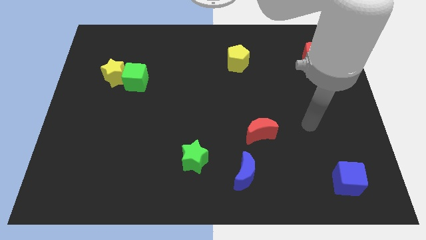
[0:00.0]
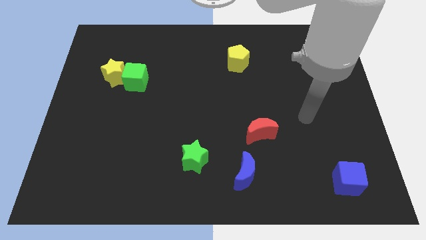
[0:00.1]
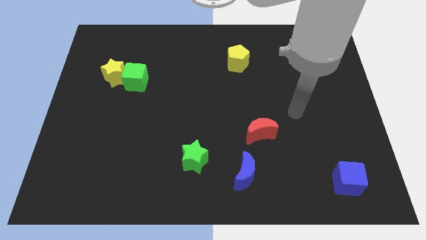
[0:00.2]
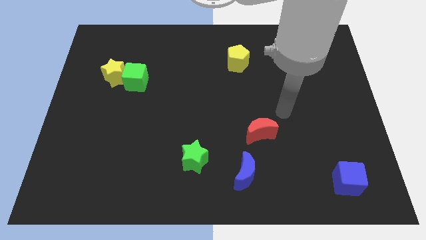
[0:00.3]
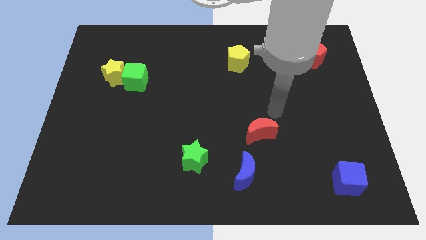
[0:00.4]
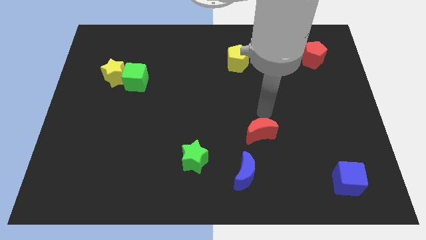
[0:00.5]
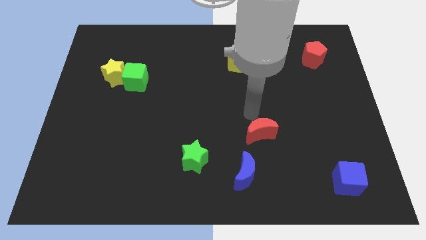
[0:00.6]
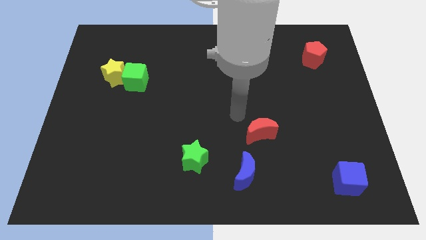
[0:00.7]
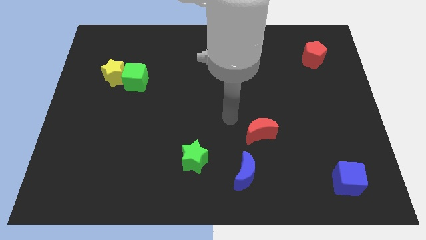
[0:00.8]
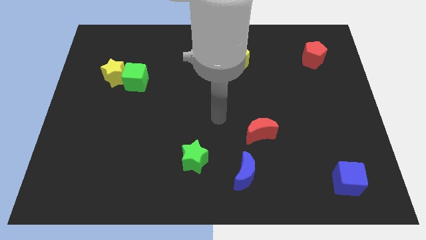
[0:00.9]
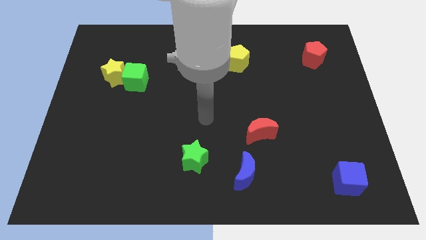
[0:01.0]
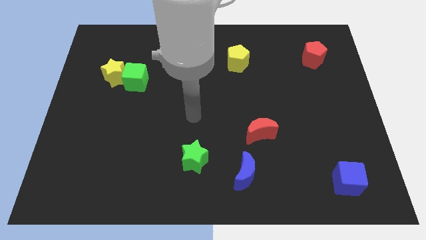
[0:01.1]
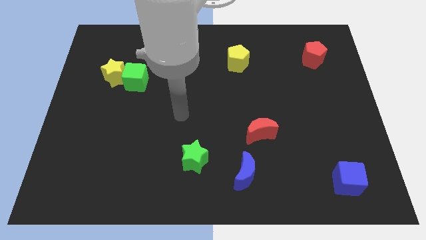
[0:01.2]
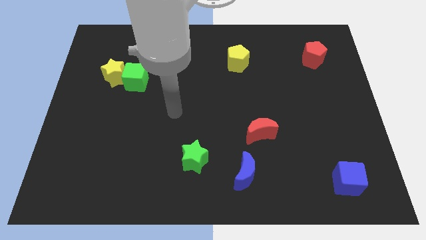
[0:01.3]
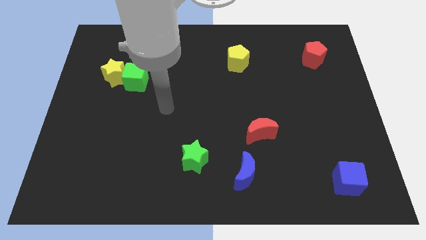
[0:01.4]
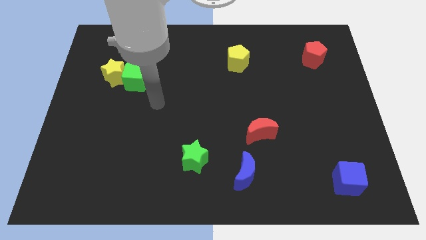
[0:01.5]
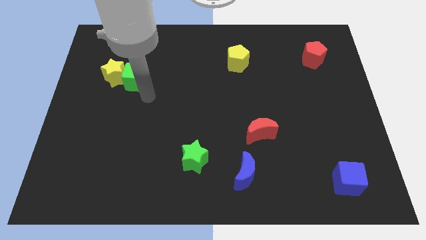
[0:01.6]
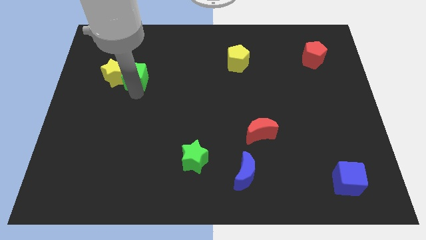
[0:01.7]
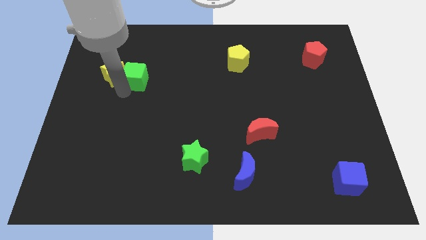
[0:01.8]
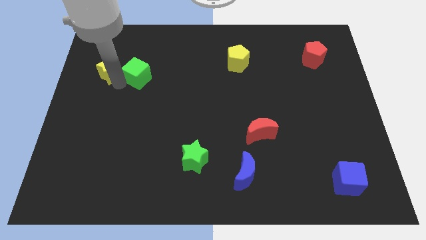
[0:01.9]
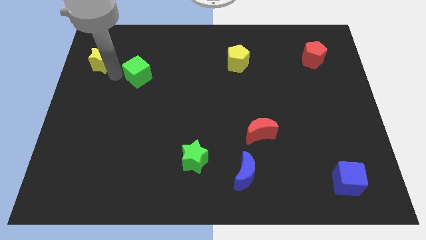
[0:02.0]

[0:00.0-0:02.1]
move the green cube away from the yellow star

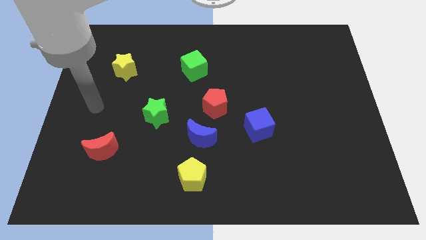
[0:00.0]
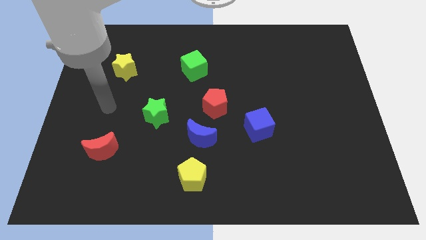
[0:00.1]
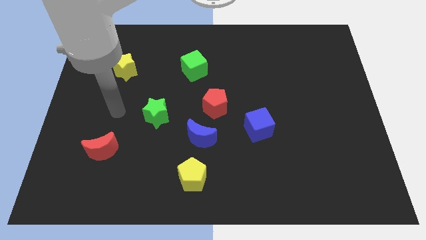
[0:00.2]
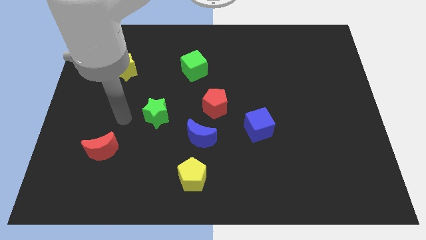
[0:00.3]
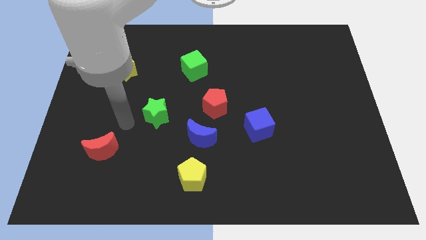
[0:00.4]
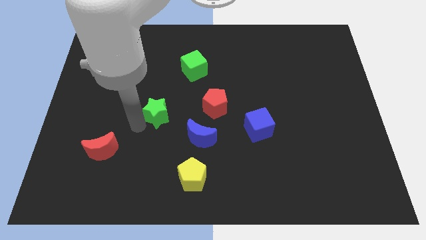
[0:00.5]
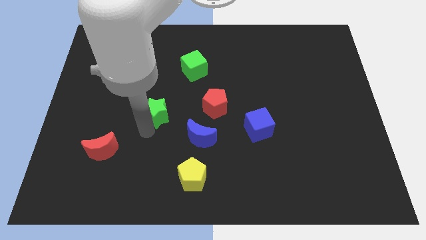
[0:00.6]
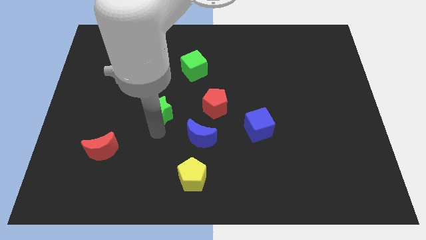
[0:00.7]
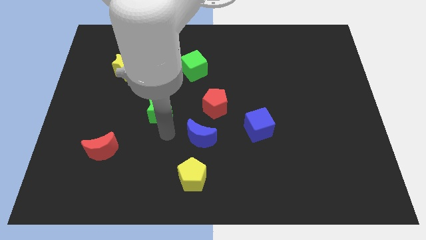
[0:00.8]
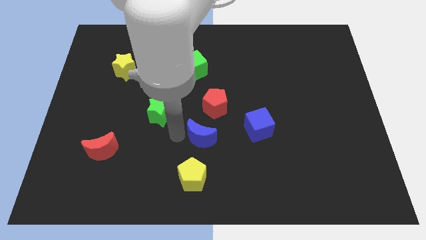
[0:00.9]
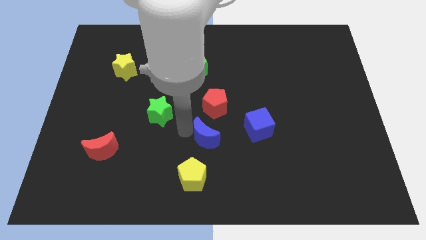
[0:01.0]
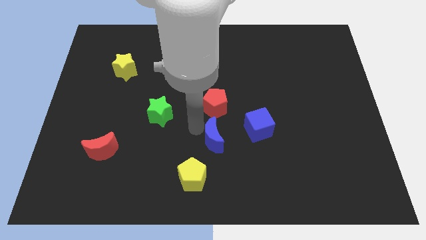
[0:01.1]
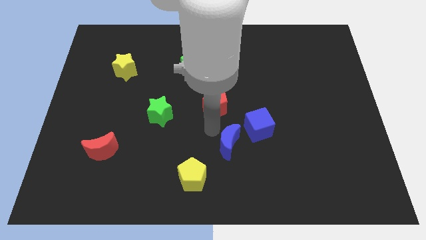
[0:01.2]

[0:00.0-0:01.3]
separate the red pentagon from the blue moon

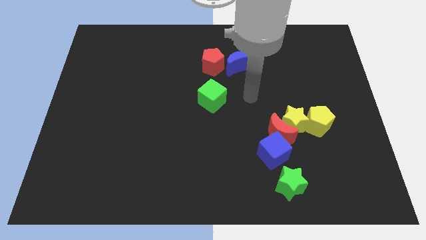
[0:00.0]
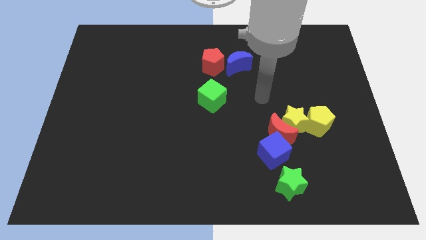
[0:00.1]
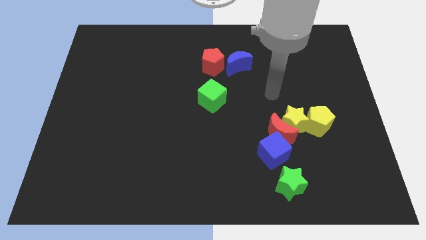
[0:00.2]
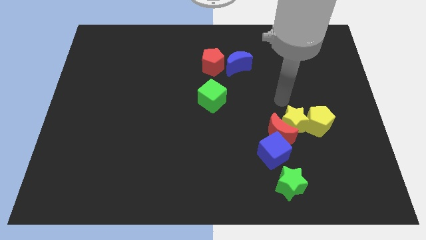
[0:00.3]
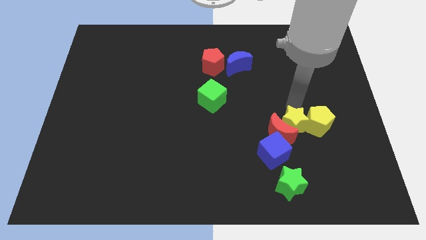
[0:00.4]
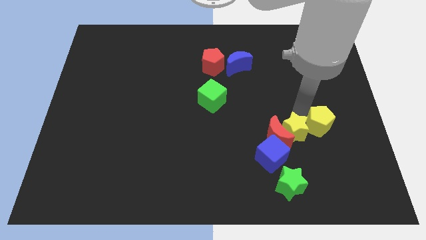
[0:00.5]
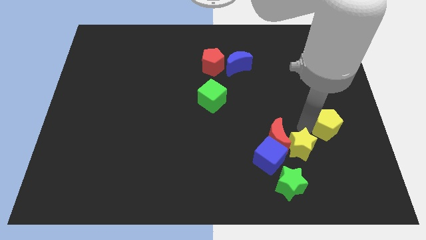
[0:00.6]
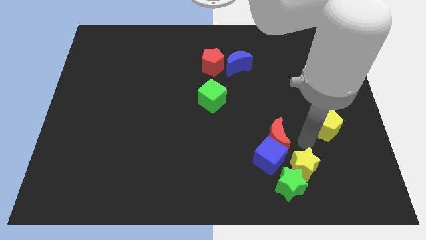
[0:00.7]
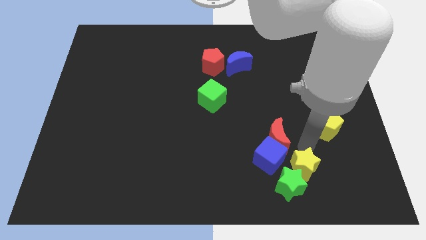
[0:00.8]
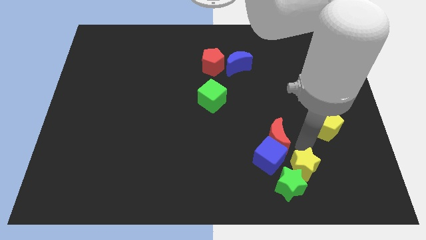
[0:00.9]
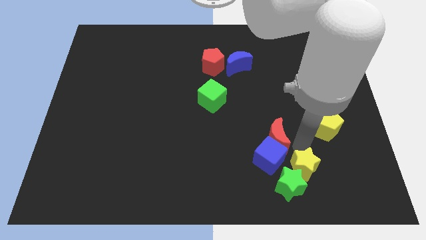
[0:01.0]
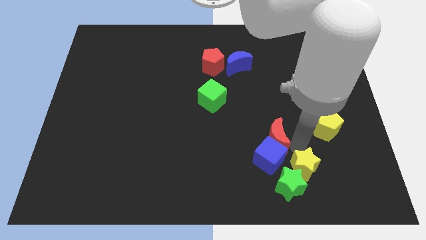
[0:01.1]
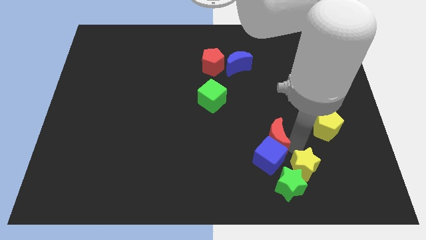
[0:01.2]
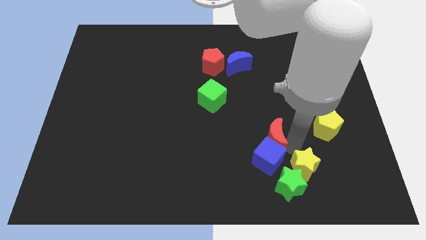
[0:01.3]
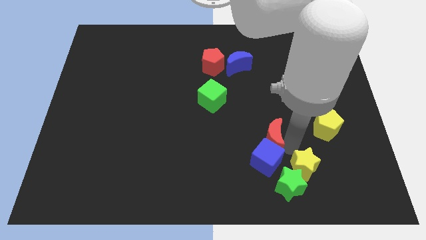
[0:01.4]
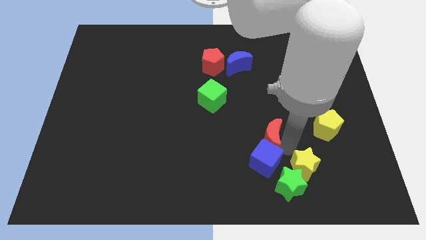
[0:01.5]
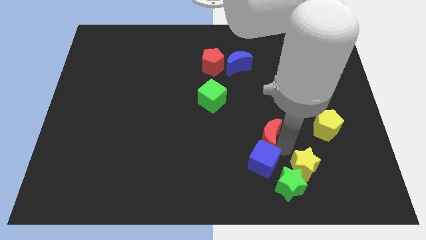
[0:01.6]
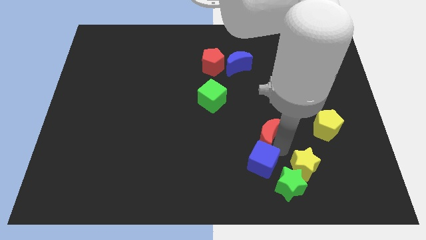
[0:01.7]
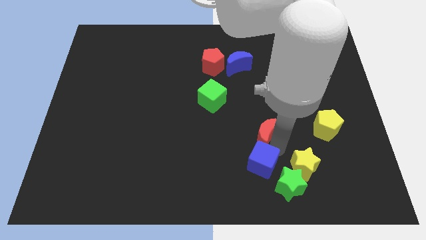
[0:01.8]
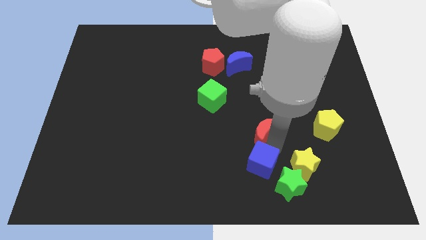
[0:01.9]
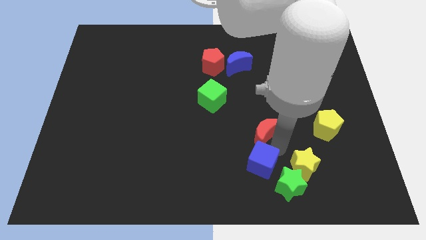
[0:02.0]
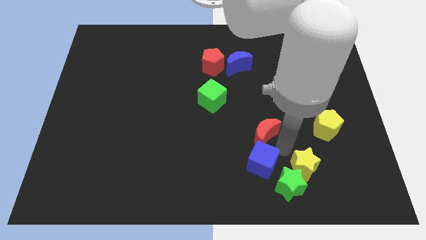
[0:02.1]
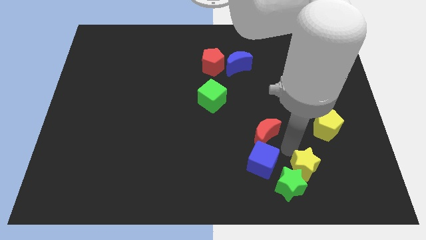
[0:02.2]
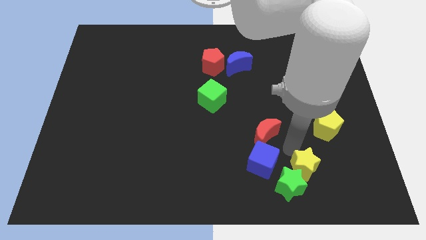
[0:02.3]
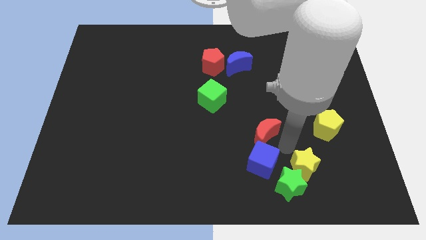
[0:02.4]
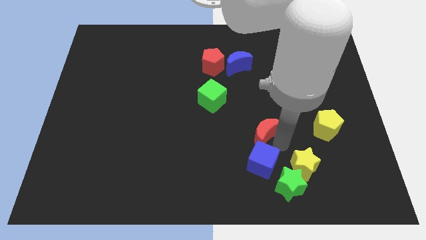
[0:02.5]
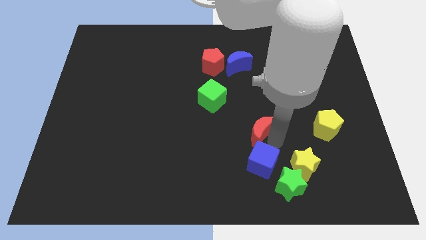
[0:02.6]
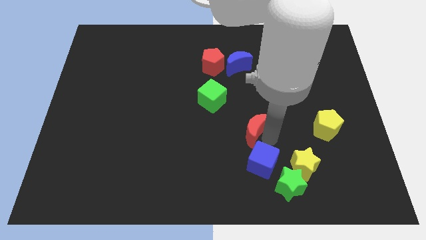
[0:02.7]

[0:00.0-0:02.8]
separate the red moon from the yellow star, blue cube, and yellow pentagon

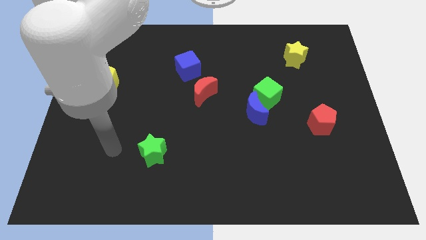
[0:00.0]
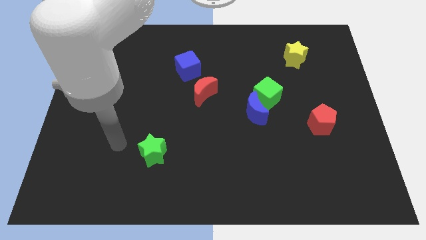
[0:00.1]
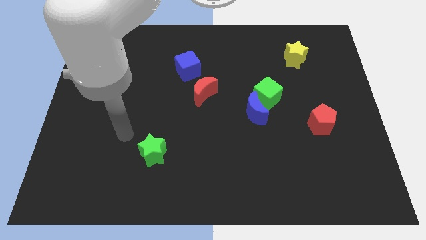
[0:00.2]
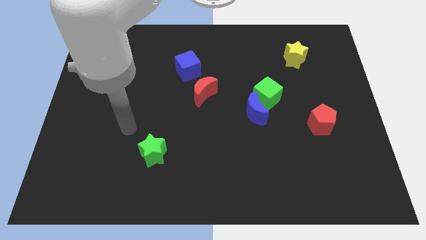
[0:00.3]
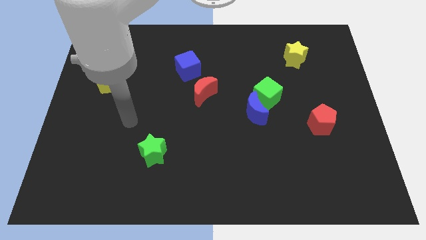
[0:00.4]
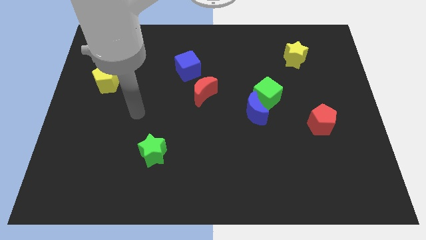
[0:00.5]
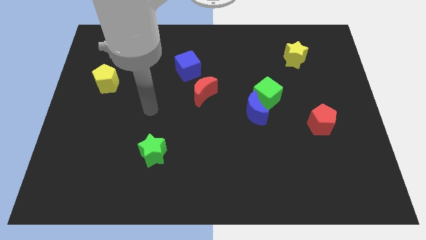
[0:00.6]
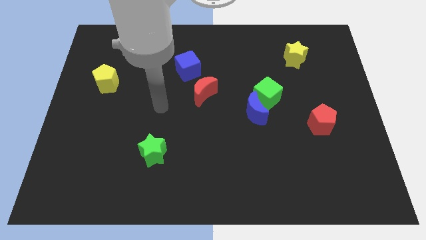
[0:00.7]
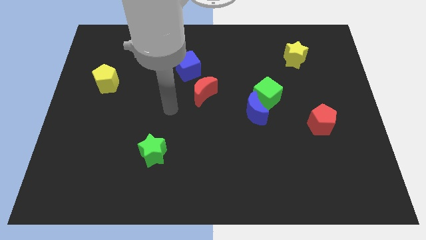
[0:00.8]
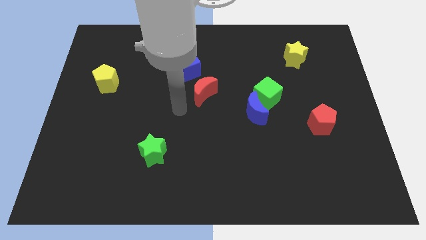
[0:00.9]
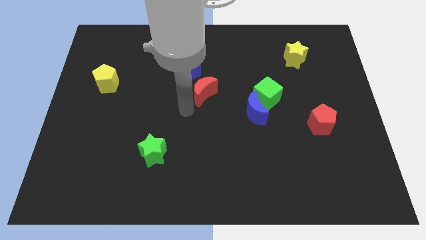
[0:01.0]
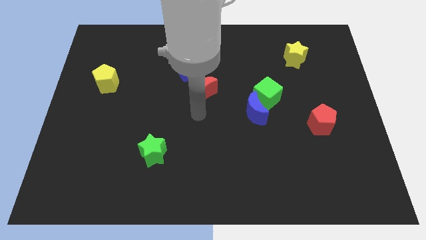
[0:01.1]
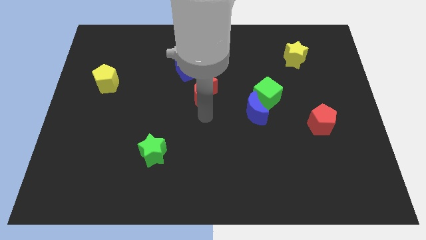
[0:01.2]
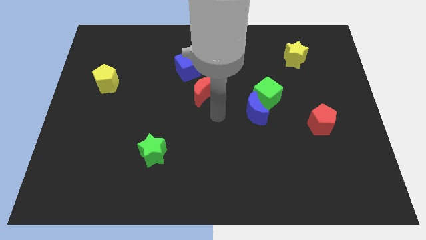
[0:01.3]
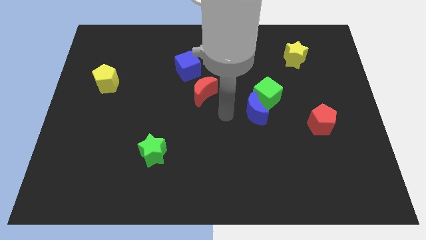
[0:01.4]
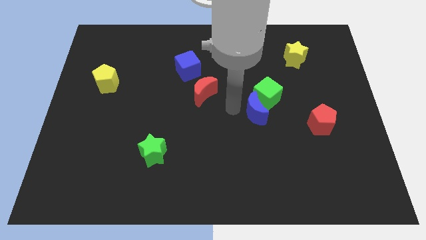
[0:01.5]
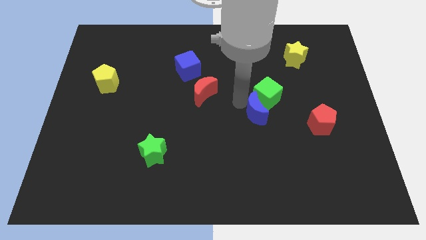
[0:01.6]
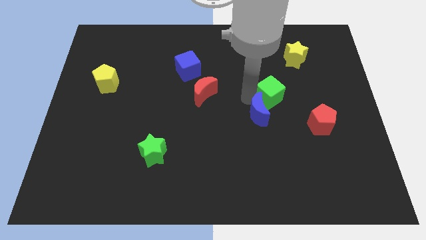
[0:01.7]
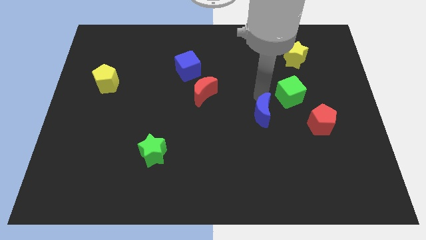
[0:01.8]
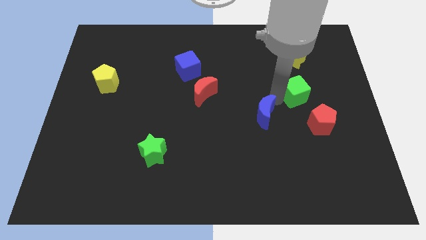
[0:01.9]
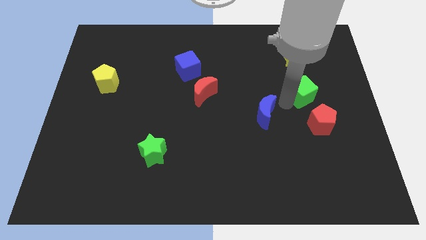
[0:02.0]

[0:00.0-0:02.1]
move the blue moon away from the green cube

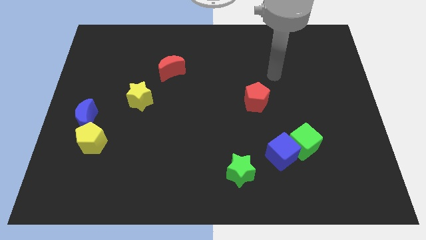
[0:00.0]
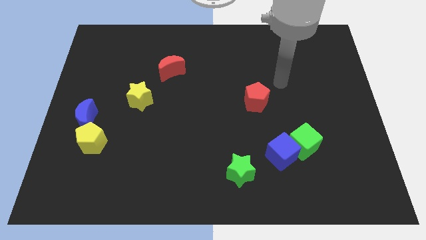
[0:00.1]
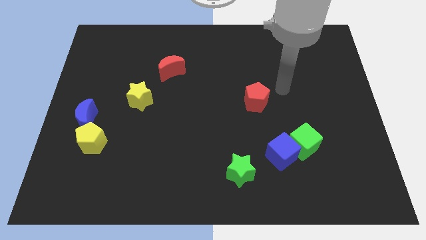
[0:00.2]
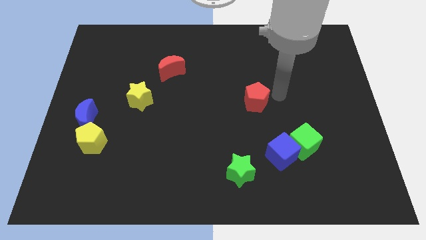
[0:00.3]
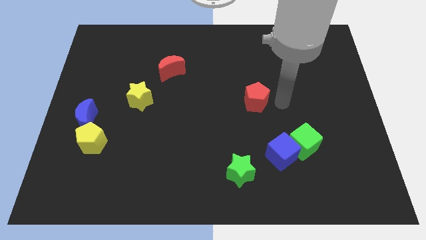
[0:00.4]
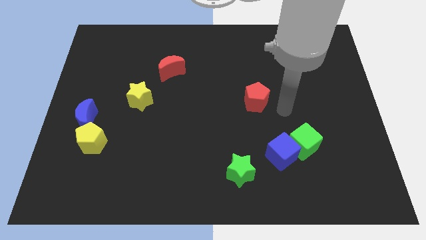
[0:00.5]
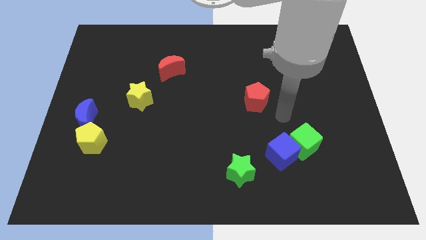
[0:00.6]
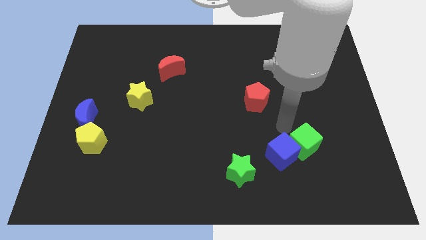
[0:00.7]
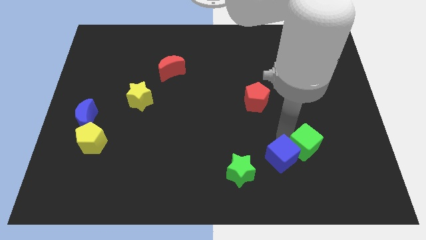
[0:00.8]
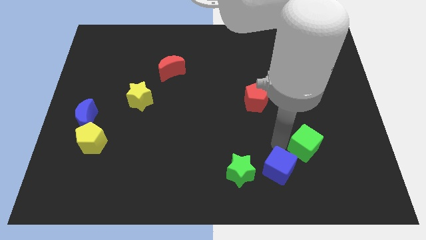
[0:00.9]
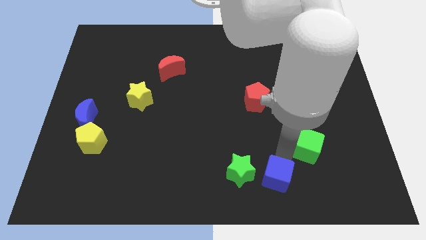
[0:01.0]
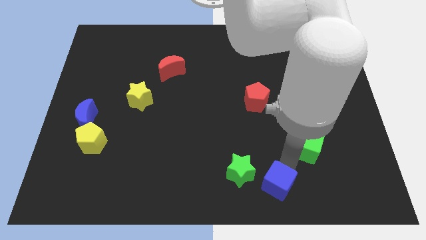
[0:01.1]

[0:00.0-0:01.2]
separate the green cube from the blue cube
